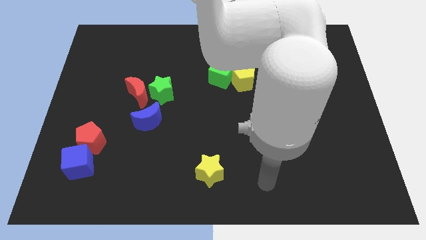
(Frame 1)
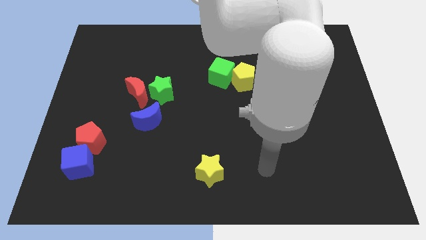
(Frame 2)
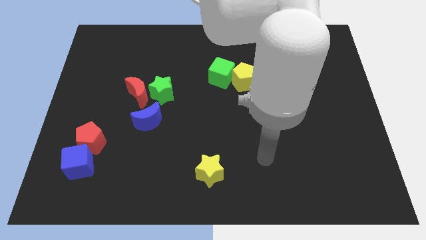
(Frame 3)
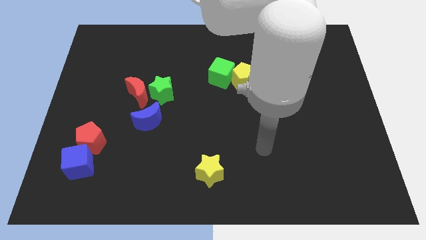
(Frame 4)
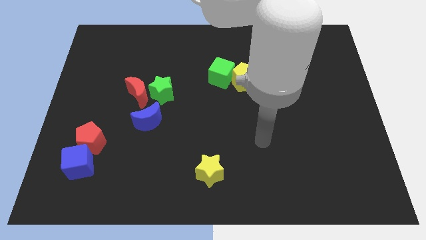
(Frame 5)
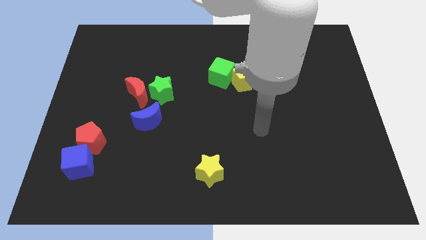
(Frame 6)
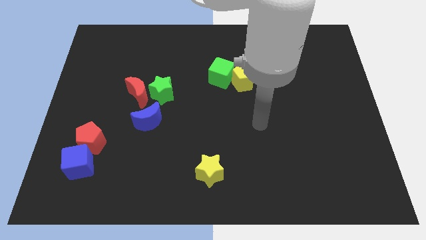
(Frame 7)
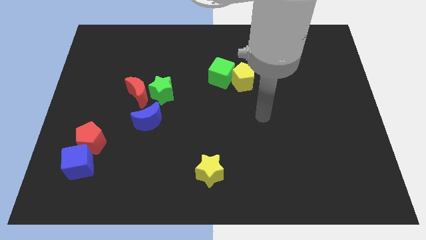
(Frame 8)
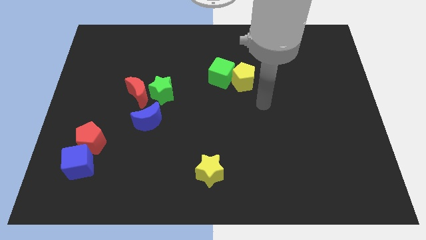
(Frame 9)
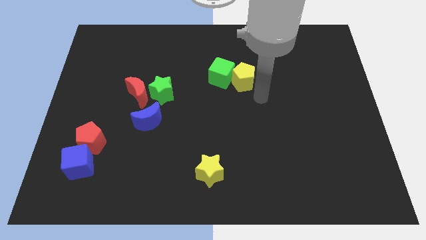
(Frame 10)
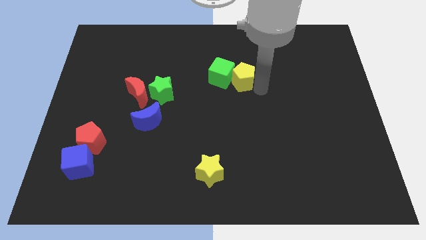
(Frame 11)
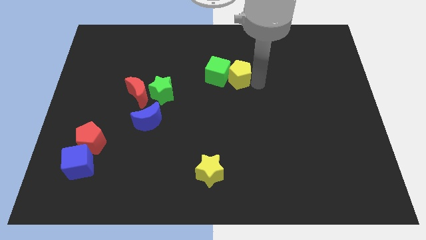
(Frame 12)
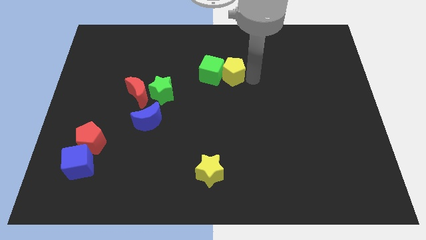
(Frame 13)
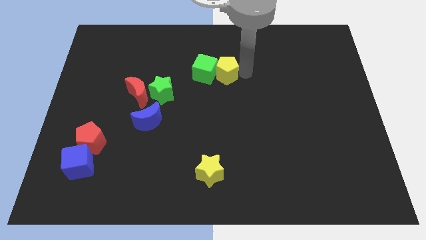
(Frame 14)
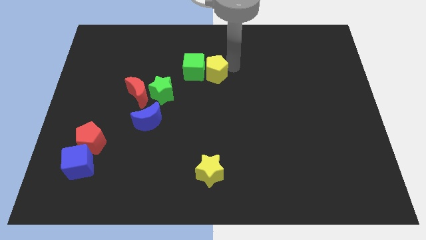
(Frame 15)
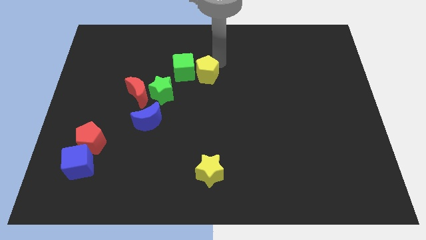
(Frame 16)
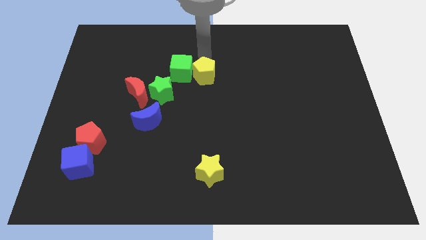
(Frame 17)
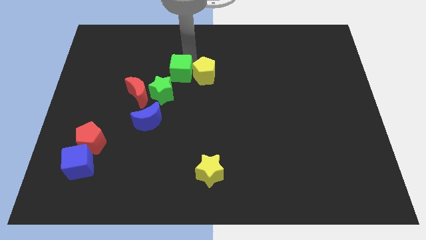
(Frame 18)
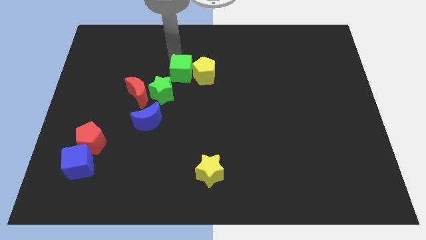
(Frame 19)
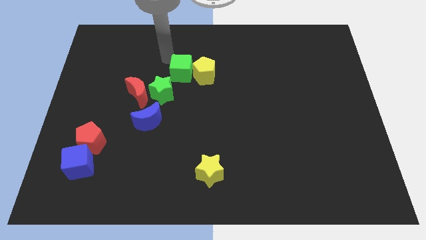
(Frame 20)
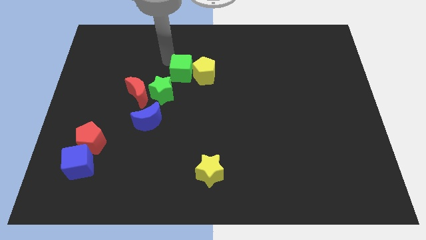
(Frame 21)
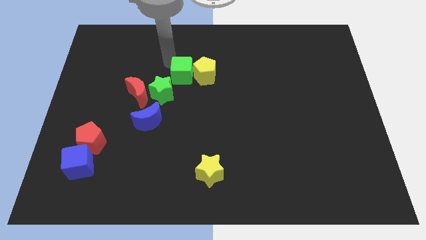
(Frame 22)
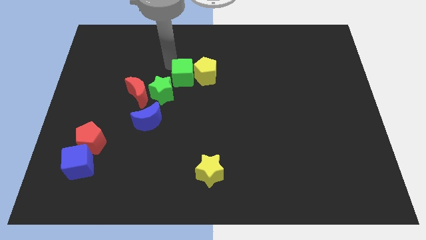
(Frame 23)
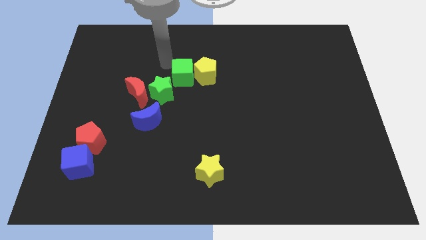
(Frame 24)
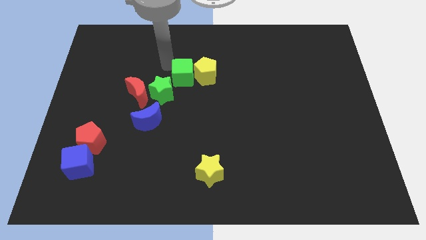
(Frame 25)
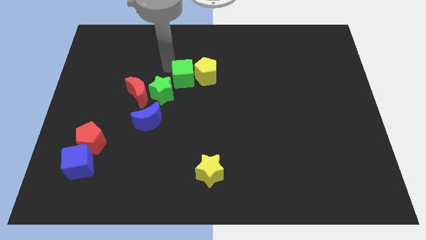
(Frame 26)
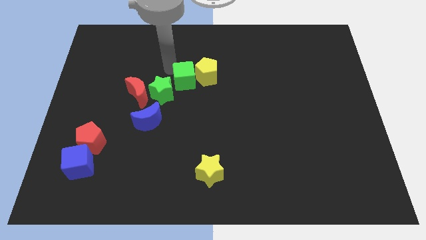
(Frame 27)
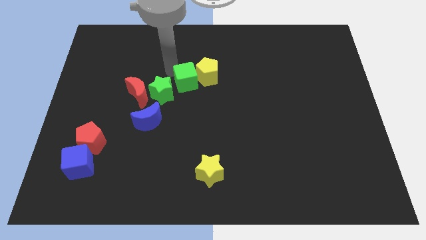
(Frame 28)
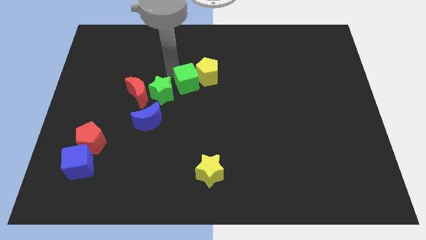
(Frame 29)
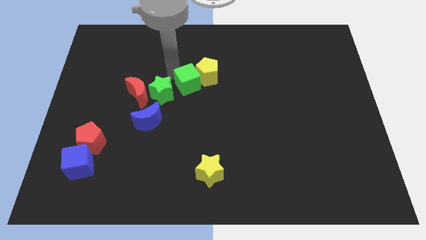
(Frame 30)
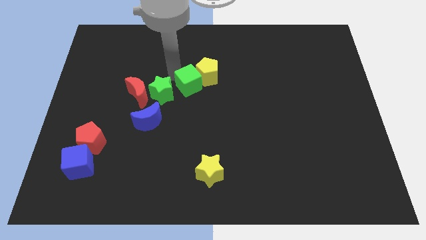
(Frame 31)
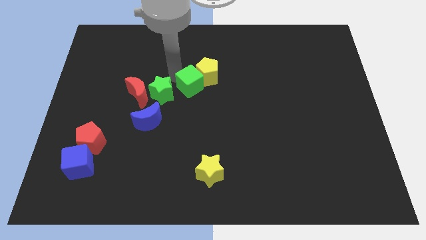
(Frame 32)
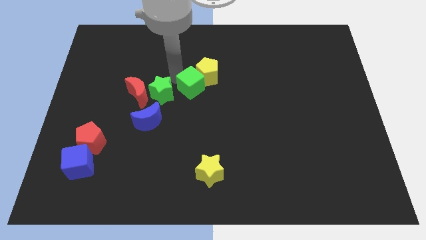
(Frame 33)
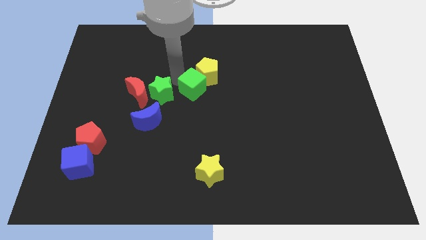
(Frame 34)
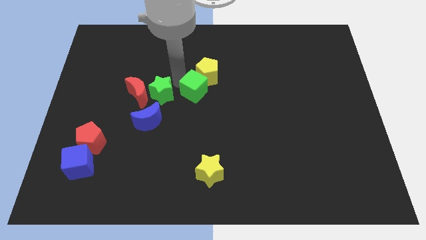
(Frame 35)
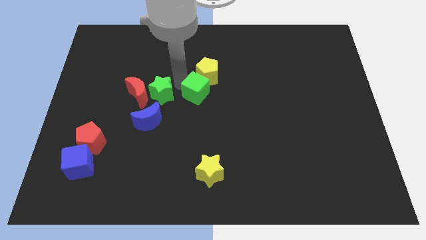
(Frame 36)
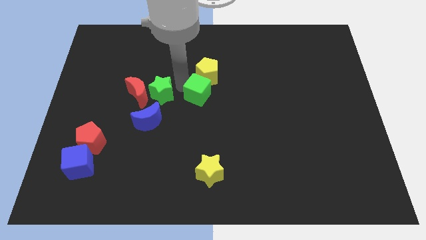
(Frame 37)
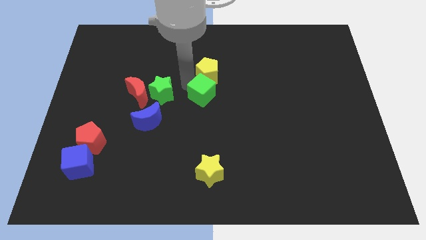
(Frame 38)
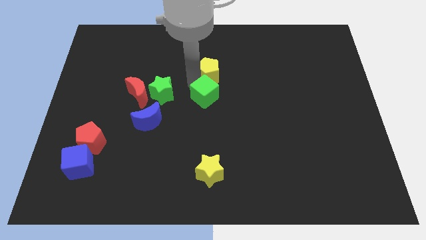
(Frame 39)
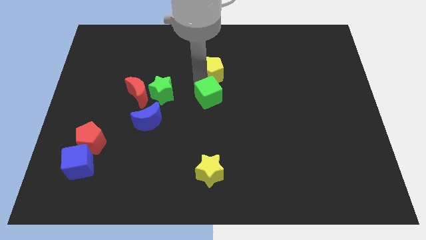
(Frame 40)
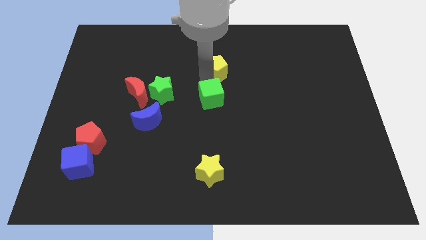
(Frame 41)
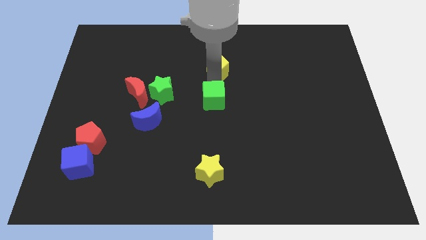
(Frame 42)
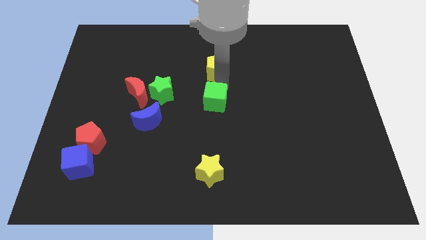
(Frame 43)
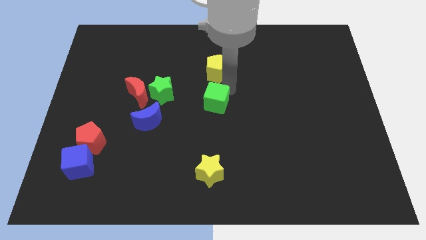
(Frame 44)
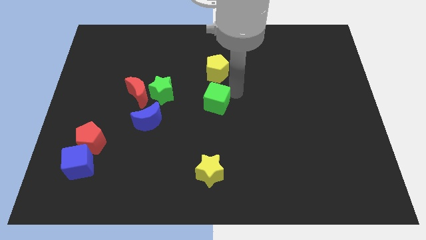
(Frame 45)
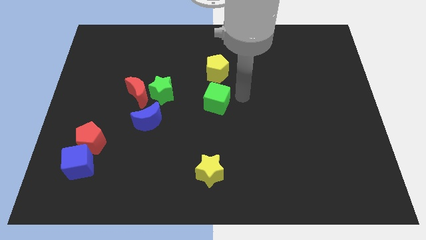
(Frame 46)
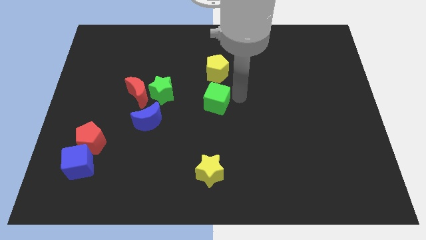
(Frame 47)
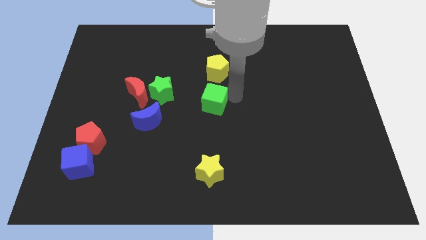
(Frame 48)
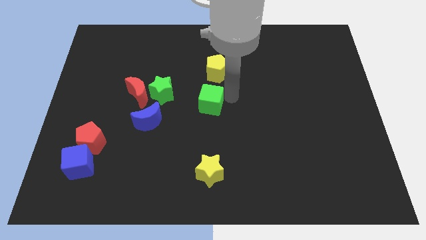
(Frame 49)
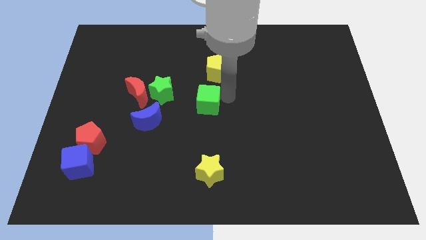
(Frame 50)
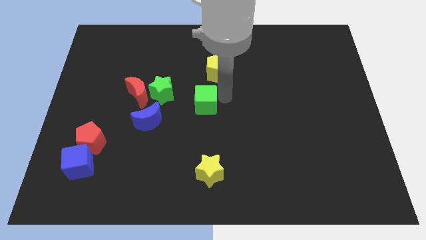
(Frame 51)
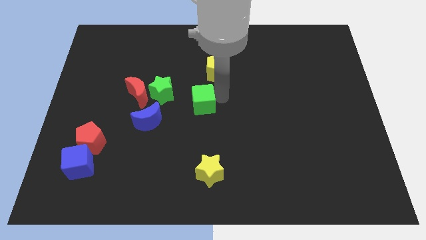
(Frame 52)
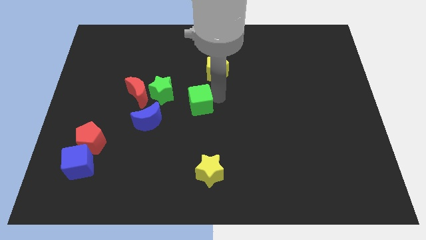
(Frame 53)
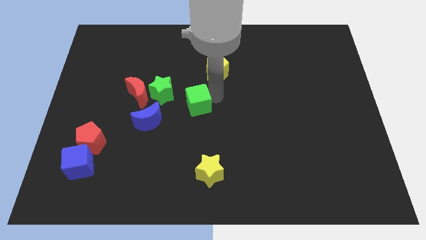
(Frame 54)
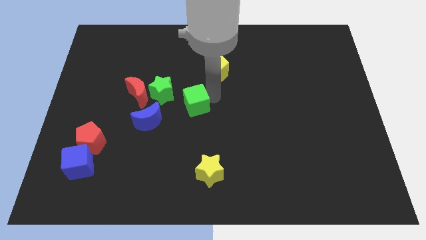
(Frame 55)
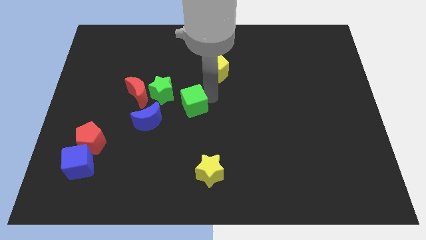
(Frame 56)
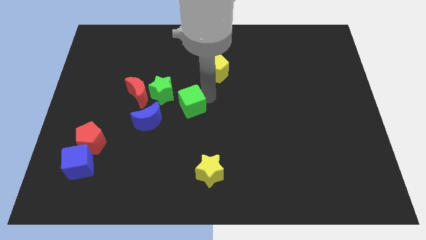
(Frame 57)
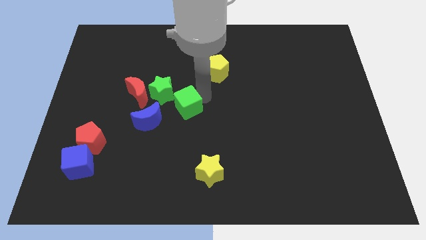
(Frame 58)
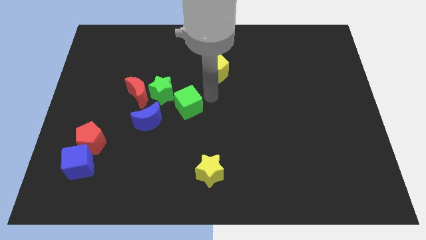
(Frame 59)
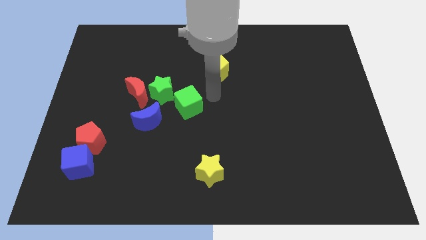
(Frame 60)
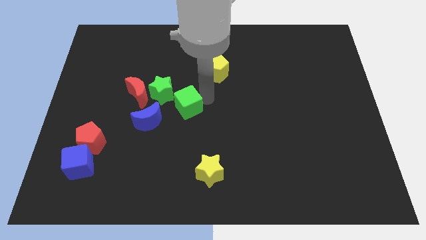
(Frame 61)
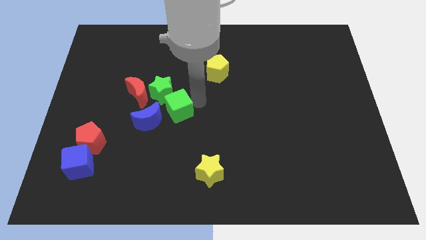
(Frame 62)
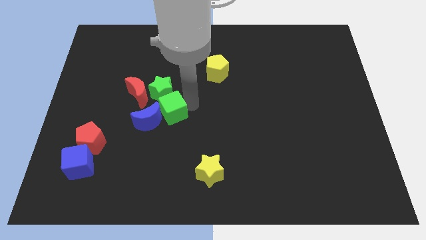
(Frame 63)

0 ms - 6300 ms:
put the green cube towards the blue moon

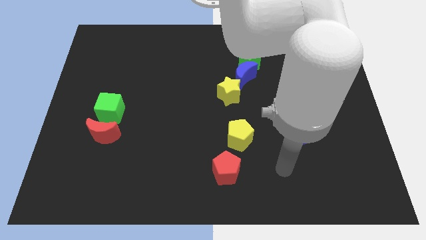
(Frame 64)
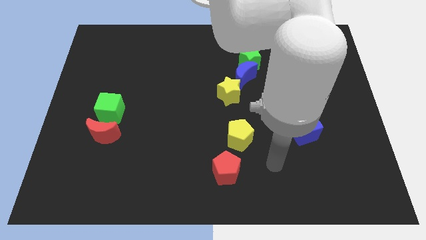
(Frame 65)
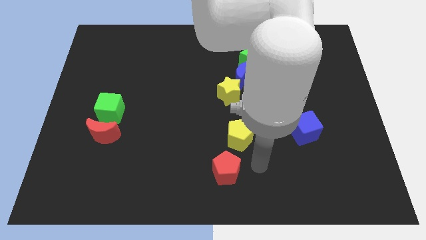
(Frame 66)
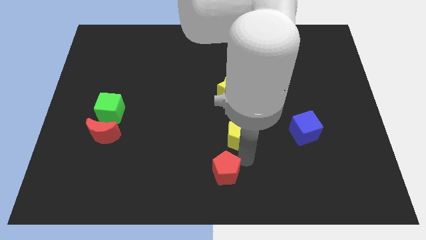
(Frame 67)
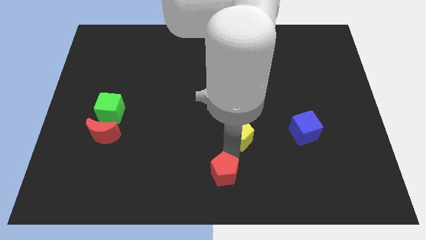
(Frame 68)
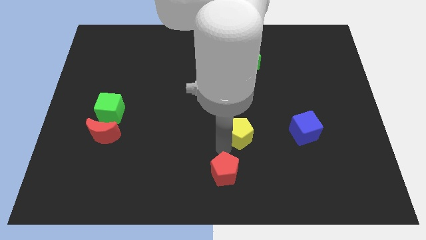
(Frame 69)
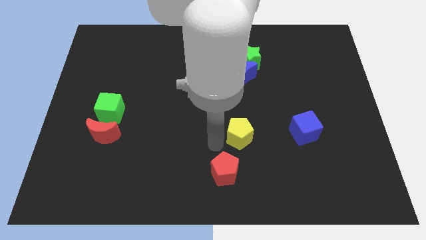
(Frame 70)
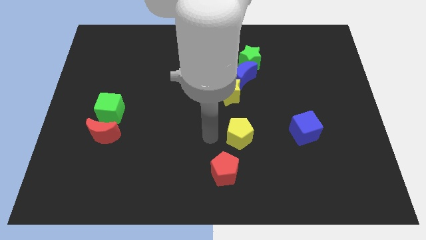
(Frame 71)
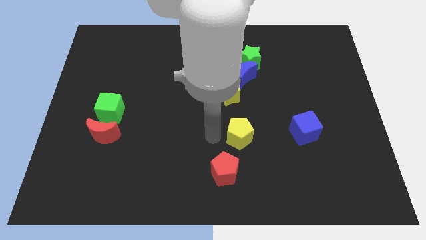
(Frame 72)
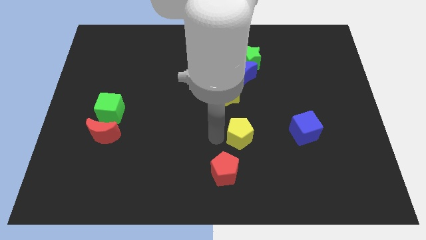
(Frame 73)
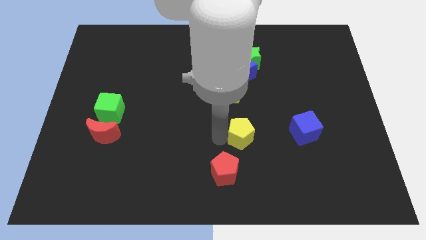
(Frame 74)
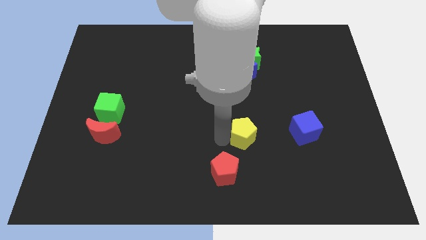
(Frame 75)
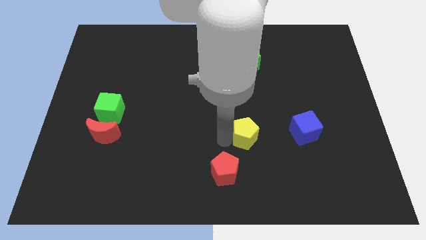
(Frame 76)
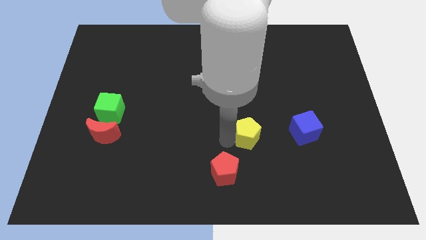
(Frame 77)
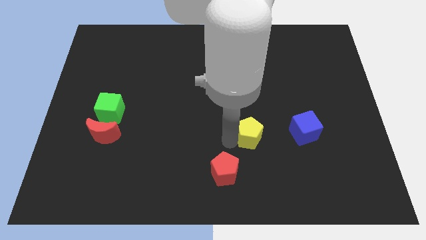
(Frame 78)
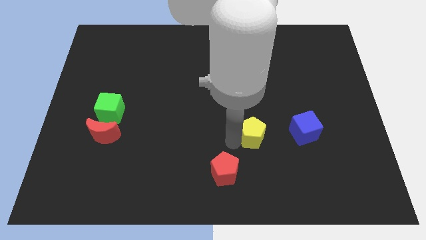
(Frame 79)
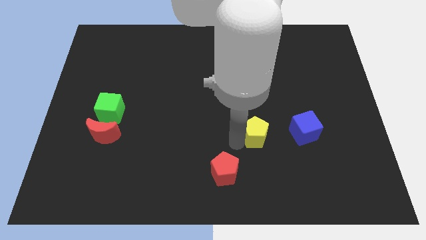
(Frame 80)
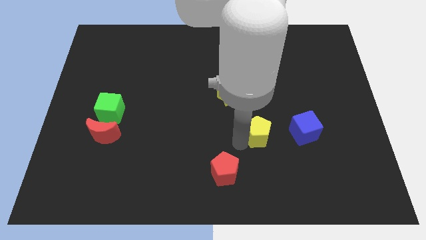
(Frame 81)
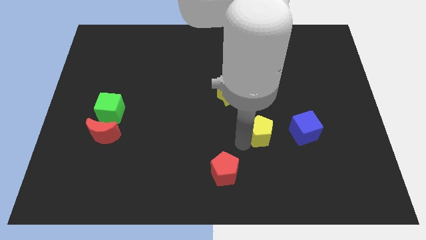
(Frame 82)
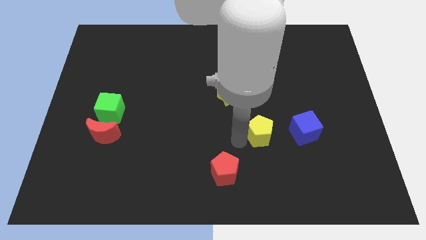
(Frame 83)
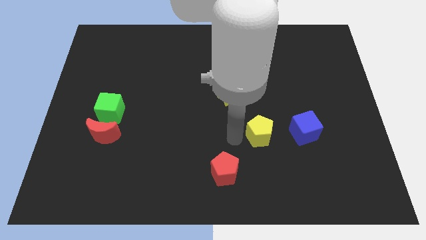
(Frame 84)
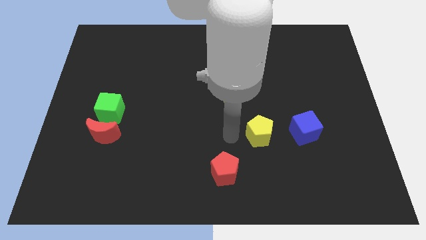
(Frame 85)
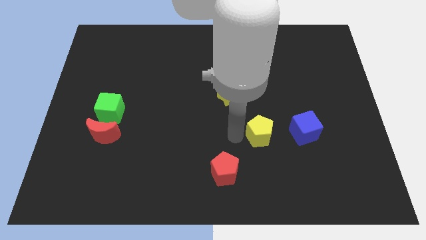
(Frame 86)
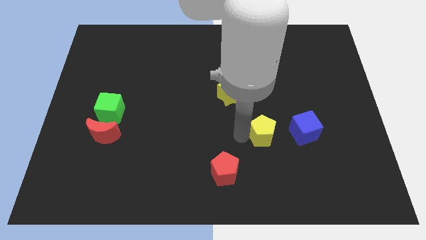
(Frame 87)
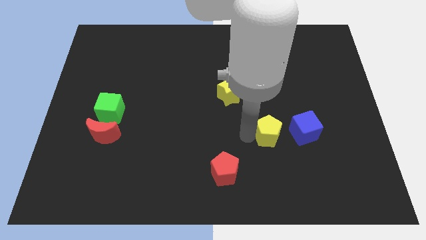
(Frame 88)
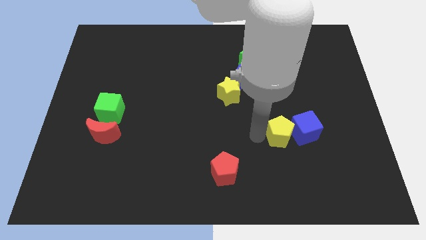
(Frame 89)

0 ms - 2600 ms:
slide the yellow pentagon next to the blue cube
